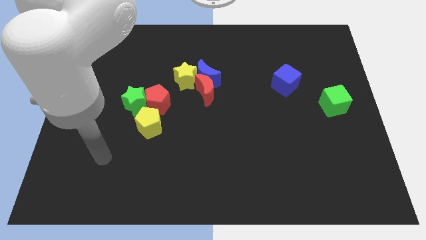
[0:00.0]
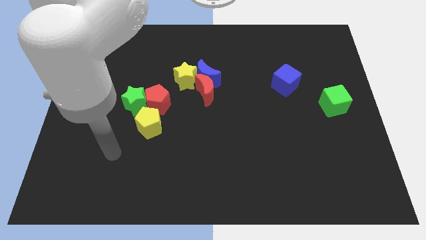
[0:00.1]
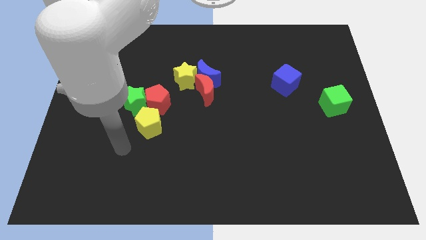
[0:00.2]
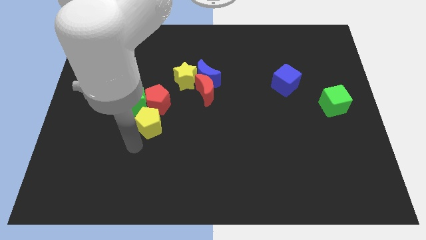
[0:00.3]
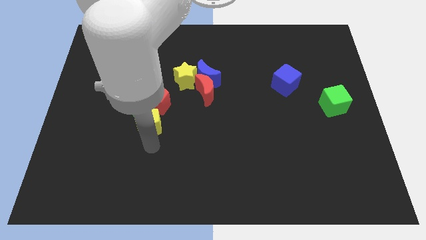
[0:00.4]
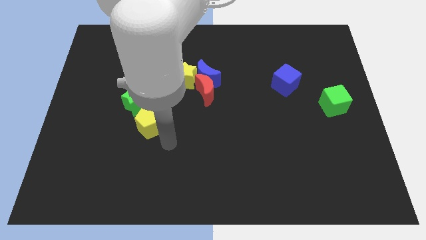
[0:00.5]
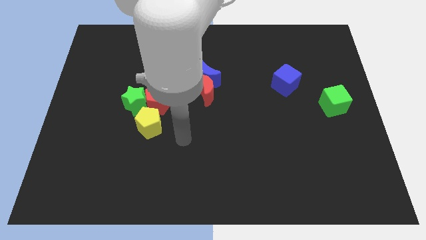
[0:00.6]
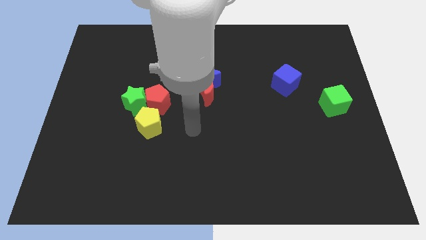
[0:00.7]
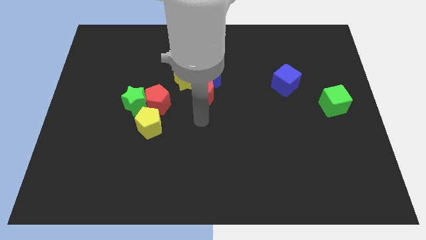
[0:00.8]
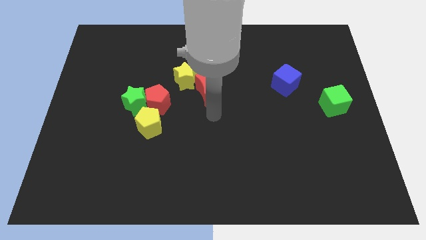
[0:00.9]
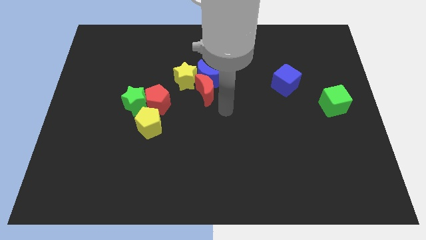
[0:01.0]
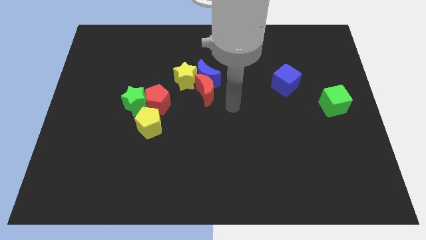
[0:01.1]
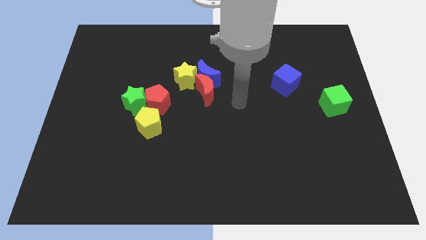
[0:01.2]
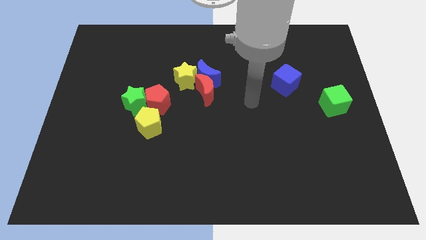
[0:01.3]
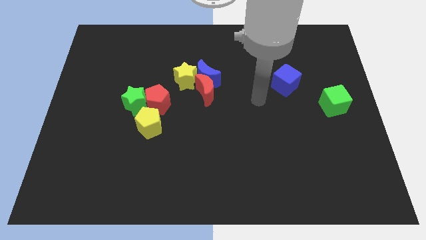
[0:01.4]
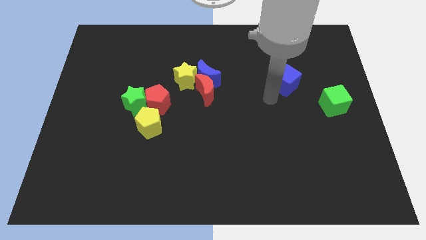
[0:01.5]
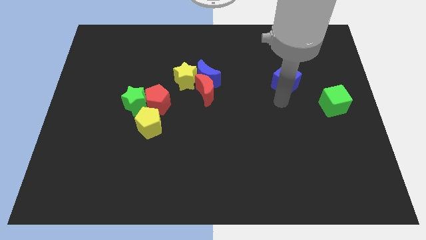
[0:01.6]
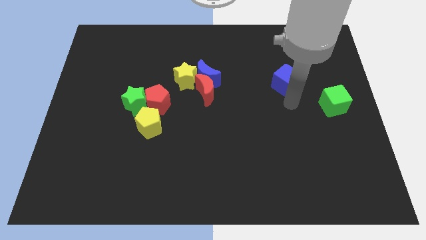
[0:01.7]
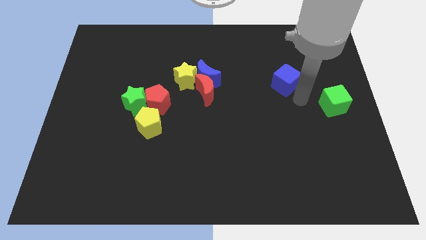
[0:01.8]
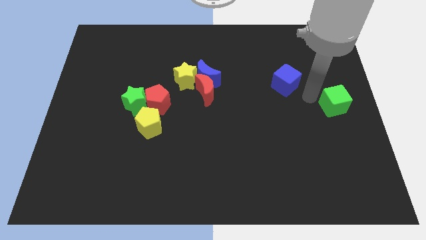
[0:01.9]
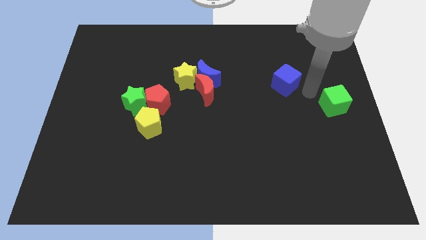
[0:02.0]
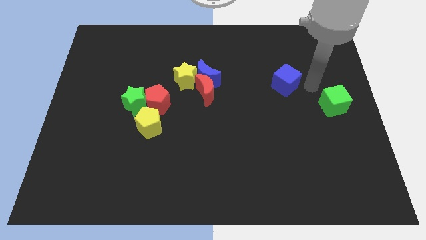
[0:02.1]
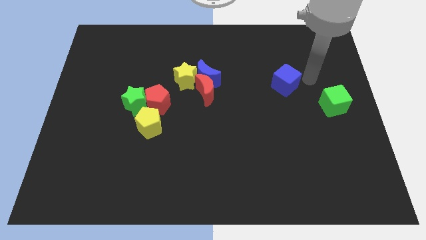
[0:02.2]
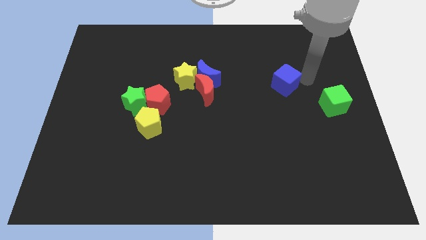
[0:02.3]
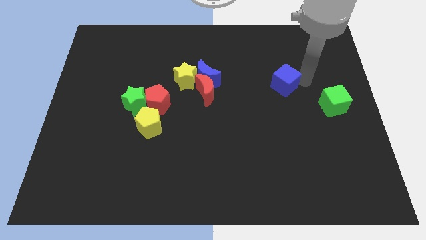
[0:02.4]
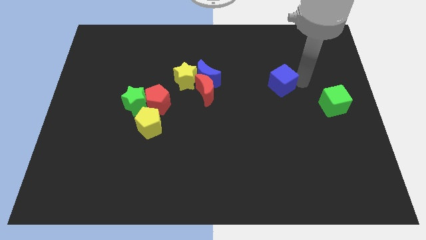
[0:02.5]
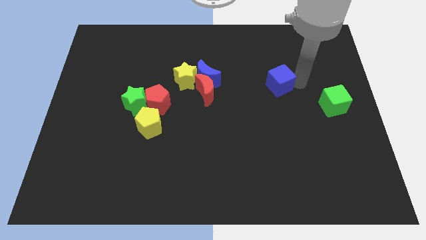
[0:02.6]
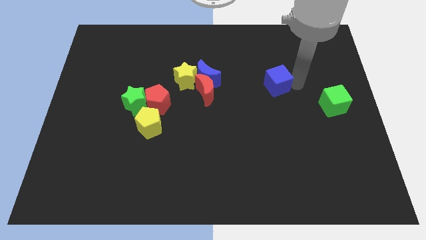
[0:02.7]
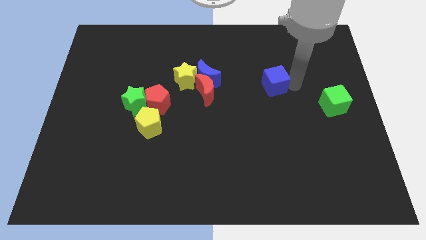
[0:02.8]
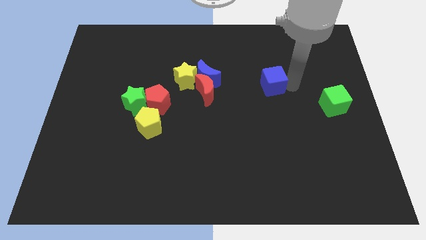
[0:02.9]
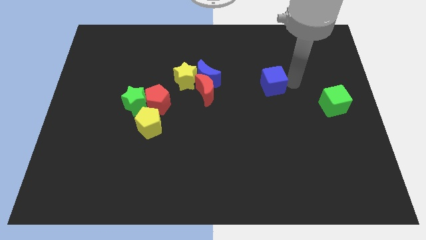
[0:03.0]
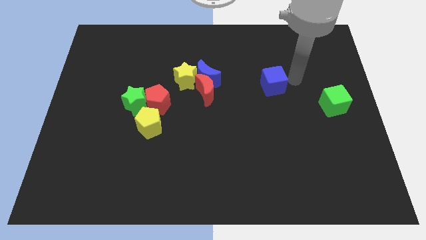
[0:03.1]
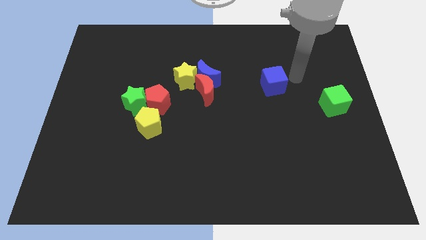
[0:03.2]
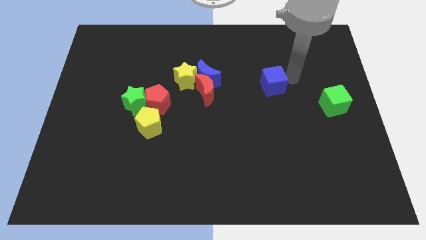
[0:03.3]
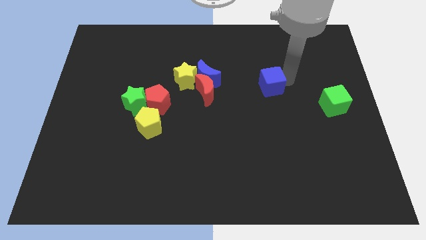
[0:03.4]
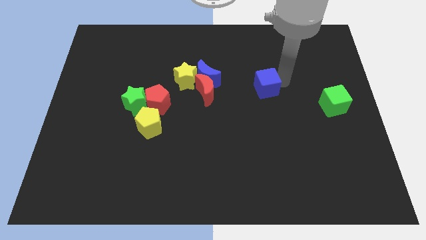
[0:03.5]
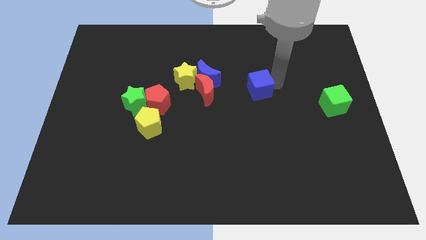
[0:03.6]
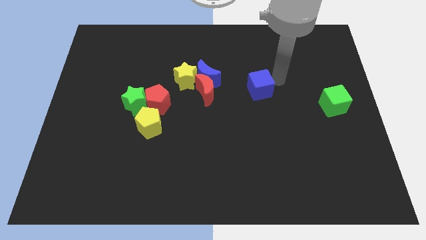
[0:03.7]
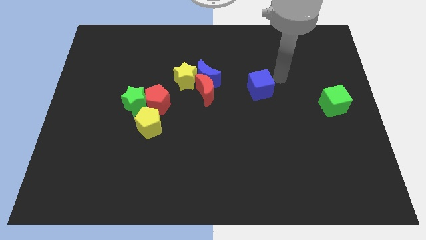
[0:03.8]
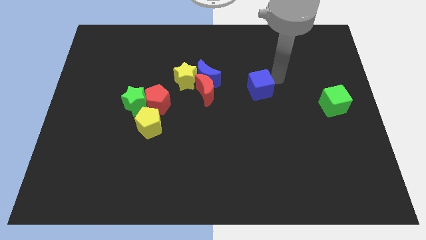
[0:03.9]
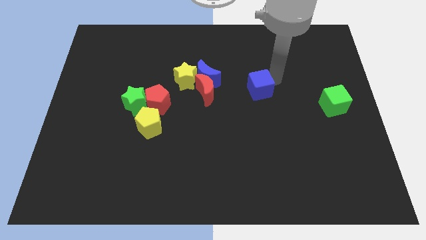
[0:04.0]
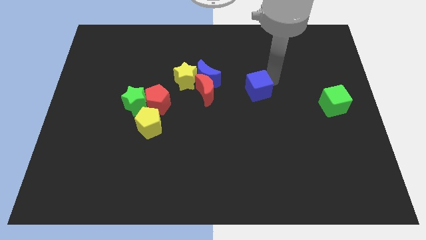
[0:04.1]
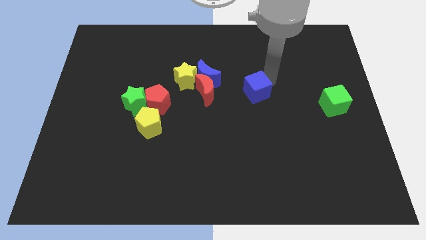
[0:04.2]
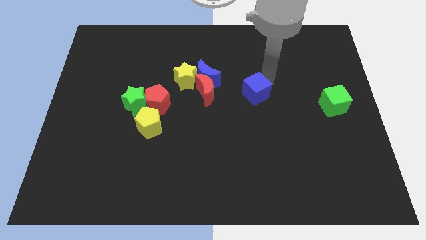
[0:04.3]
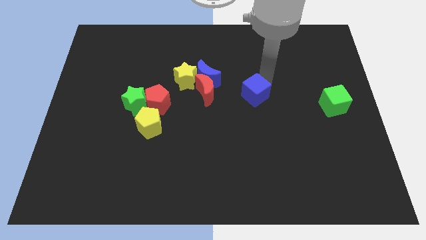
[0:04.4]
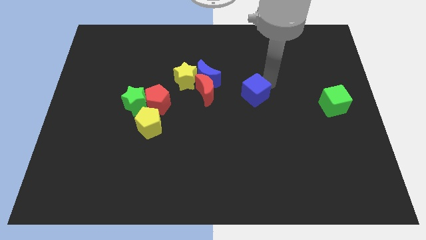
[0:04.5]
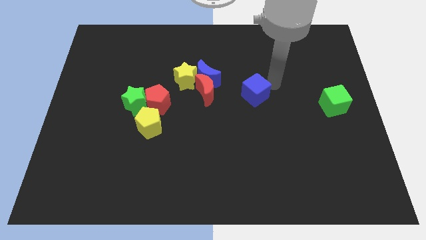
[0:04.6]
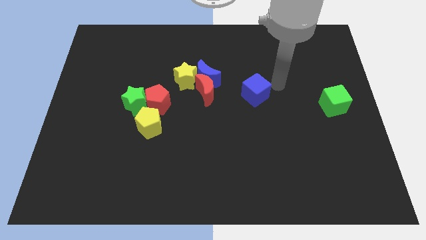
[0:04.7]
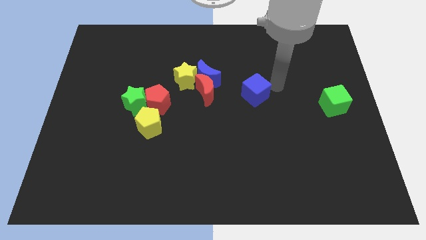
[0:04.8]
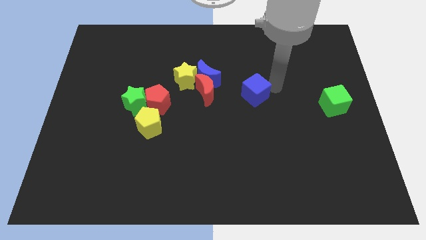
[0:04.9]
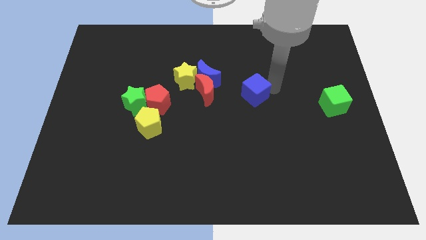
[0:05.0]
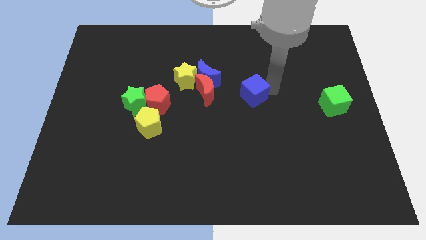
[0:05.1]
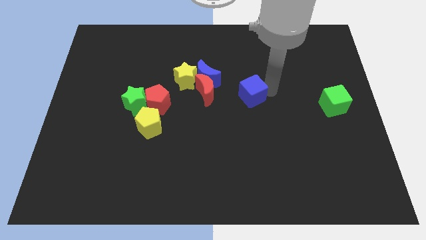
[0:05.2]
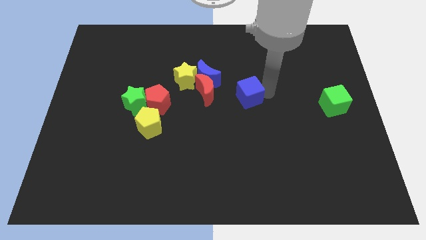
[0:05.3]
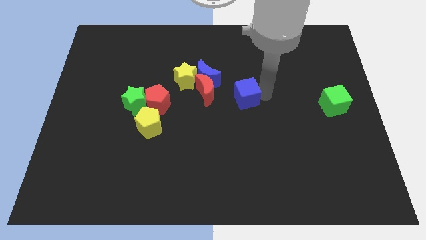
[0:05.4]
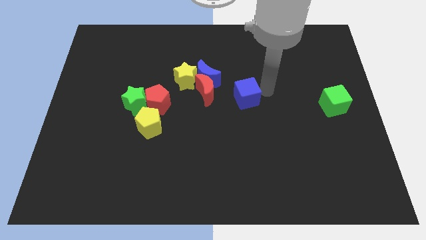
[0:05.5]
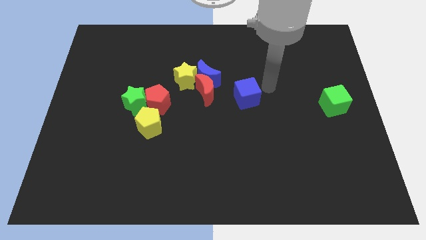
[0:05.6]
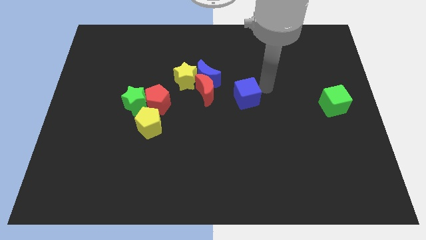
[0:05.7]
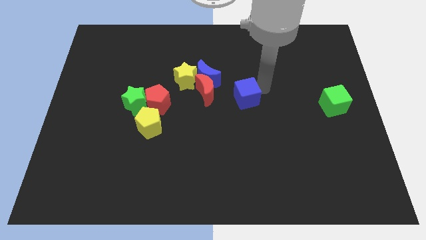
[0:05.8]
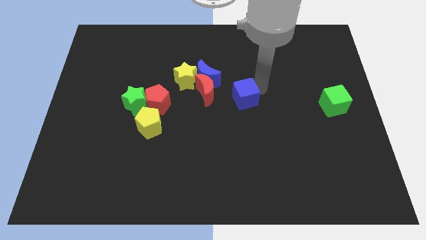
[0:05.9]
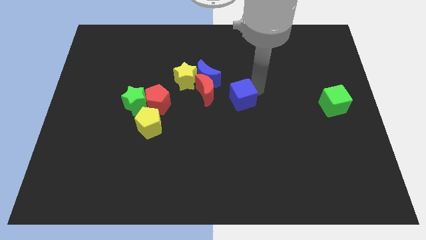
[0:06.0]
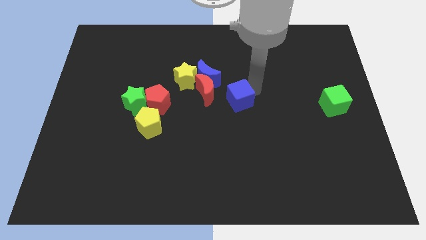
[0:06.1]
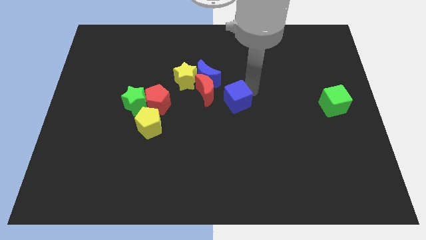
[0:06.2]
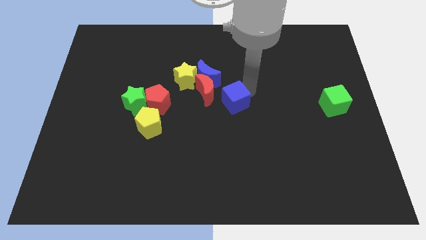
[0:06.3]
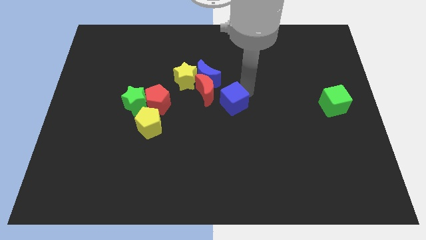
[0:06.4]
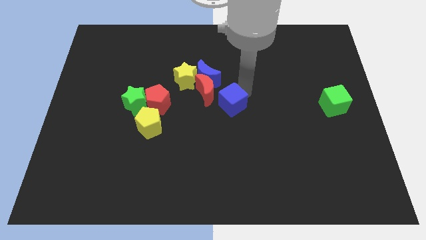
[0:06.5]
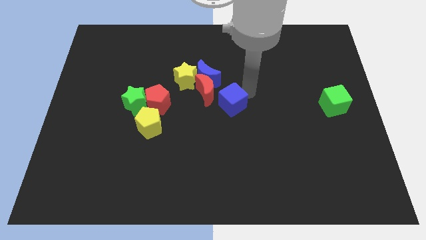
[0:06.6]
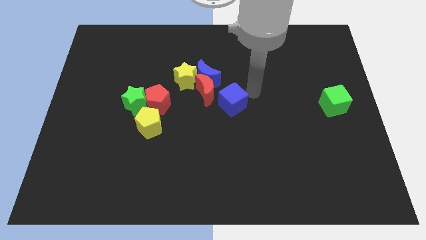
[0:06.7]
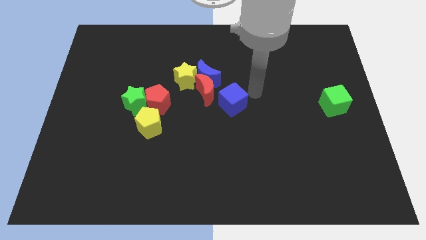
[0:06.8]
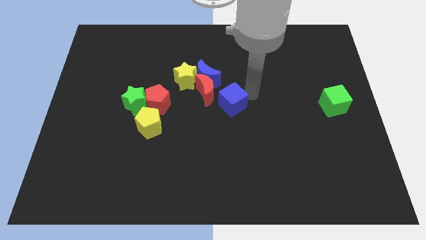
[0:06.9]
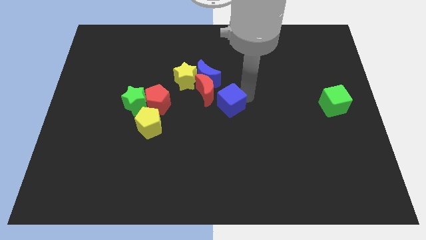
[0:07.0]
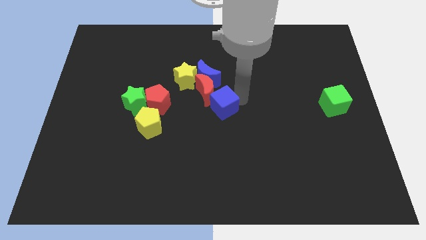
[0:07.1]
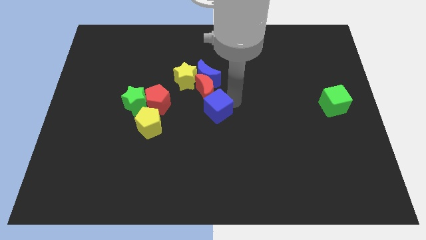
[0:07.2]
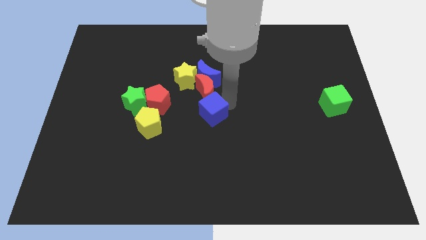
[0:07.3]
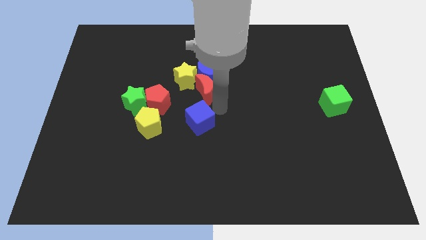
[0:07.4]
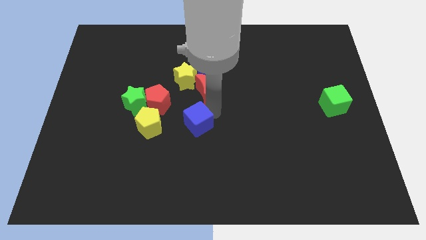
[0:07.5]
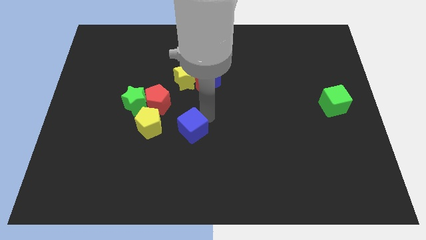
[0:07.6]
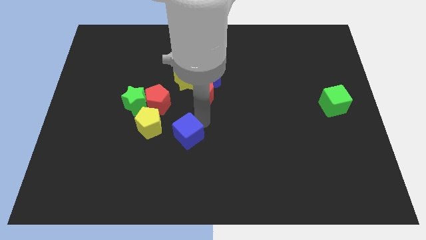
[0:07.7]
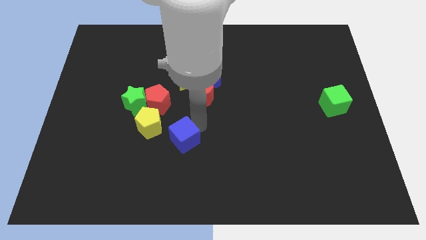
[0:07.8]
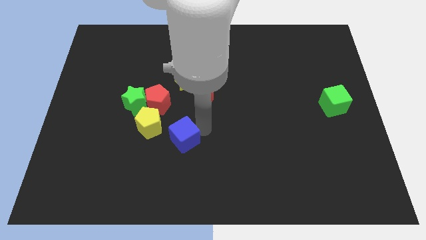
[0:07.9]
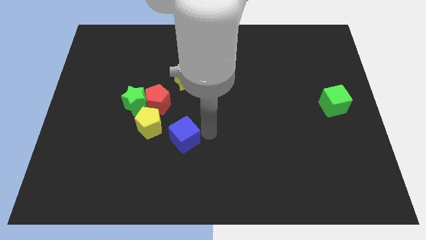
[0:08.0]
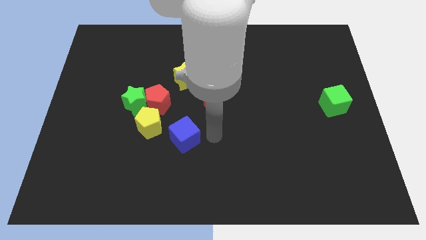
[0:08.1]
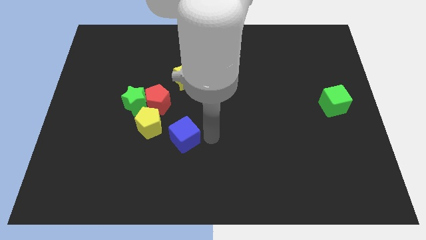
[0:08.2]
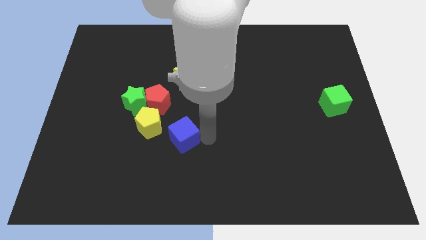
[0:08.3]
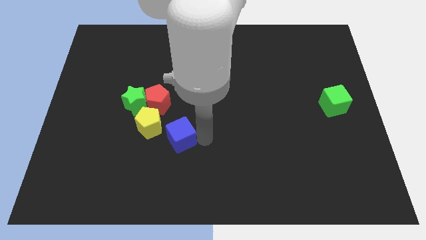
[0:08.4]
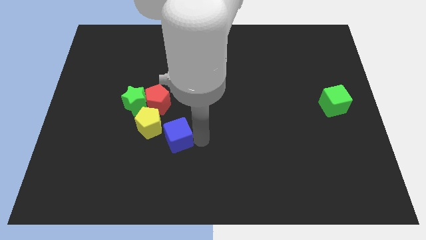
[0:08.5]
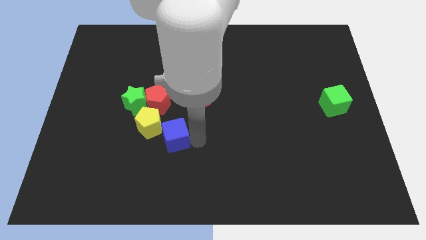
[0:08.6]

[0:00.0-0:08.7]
put the blue cube to the bottom side of the red pentagon
